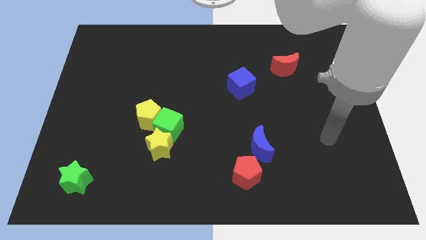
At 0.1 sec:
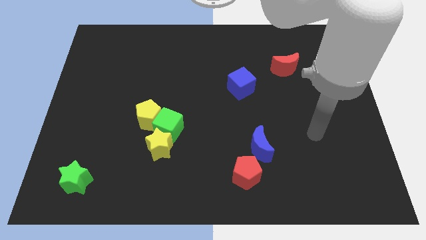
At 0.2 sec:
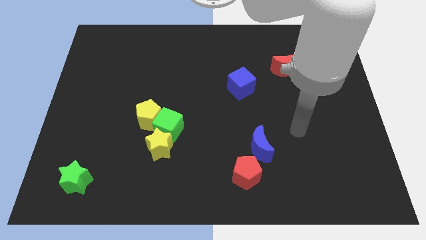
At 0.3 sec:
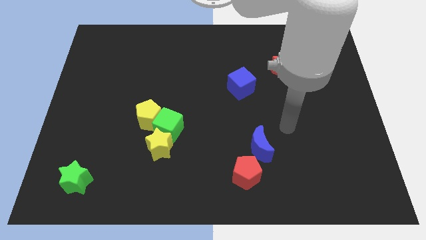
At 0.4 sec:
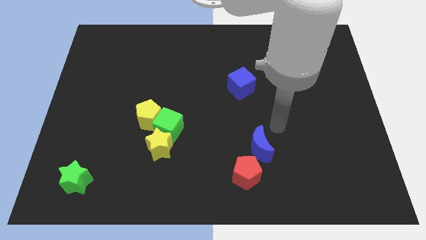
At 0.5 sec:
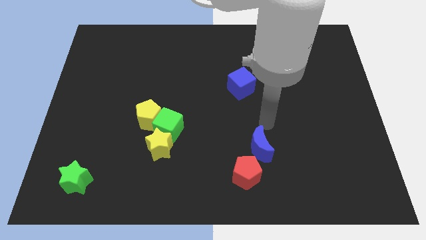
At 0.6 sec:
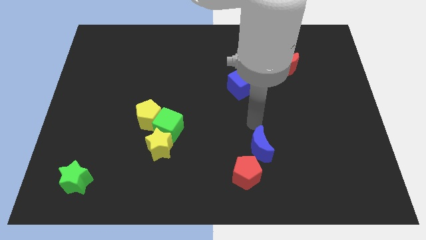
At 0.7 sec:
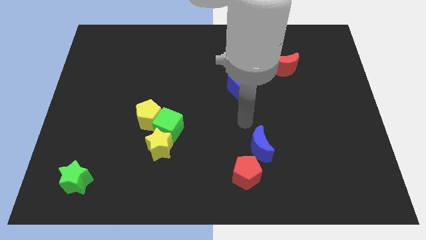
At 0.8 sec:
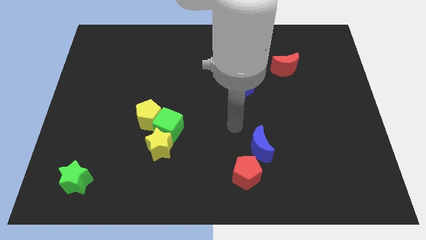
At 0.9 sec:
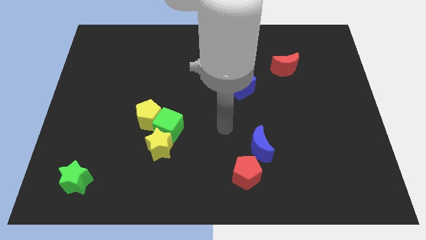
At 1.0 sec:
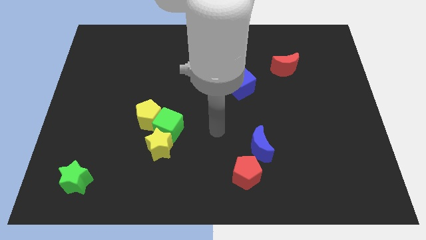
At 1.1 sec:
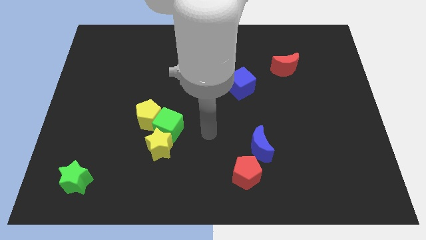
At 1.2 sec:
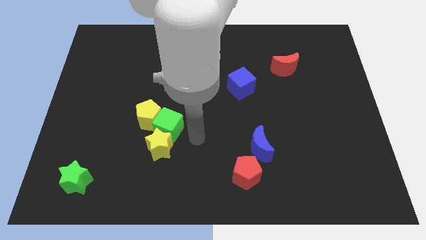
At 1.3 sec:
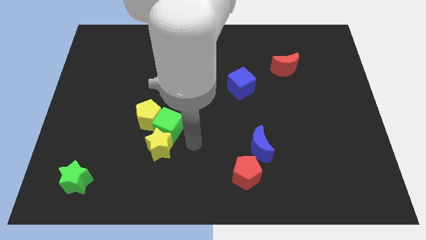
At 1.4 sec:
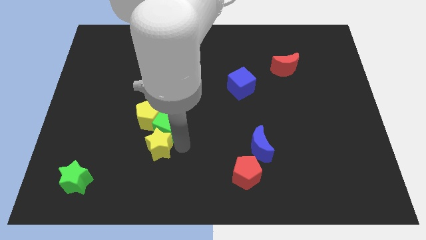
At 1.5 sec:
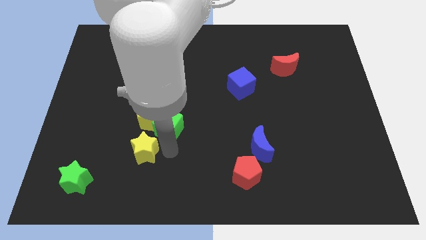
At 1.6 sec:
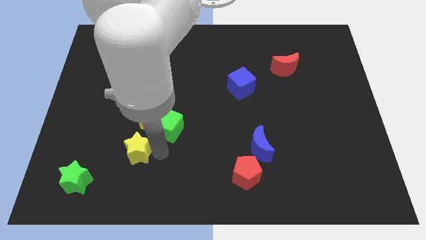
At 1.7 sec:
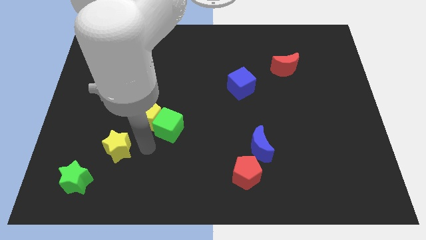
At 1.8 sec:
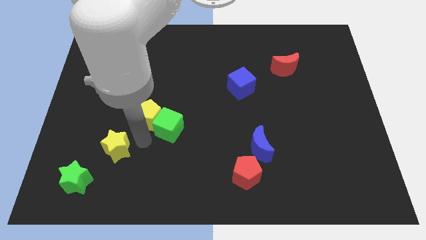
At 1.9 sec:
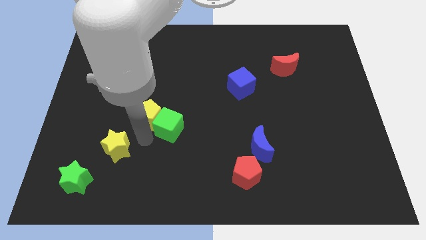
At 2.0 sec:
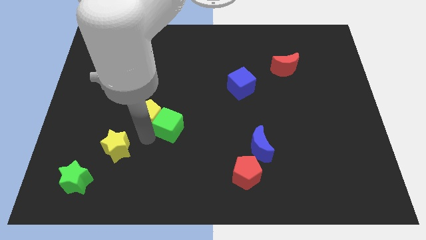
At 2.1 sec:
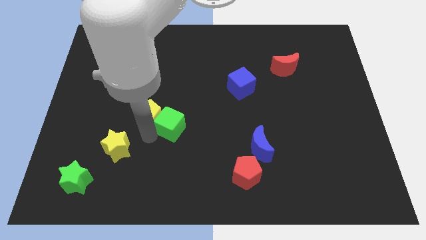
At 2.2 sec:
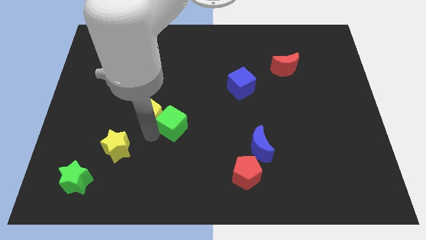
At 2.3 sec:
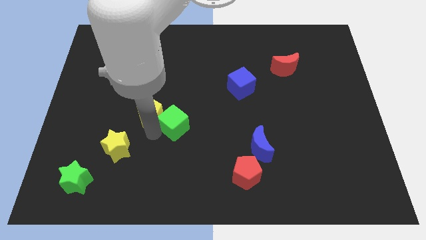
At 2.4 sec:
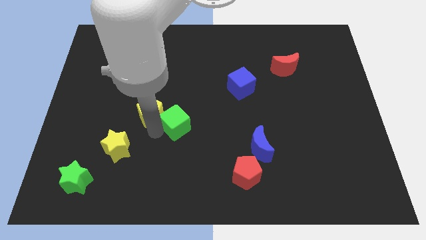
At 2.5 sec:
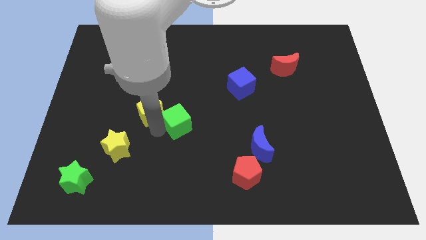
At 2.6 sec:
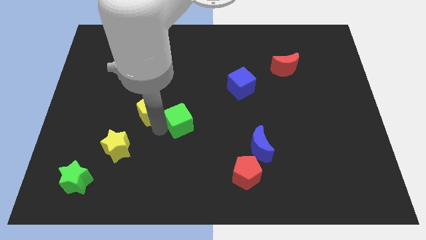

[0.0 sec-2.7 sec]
move the green cube away from the yellow pentagon and yellow star

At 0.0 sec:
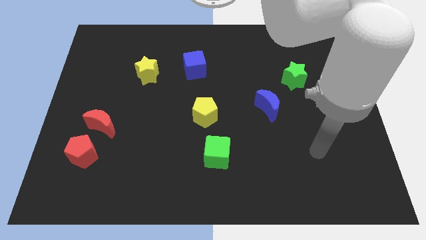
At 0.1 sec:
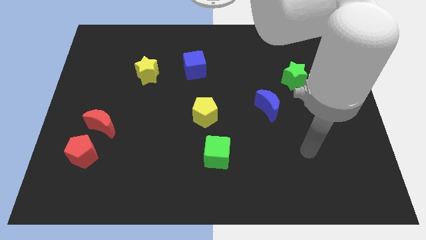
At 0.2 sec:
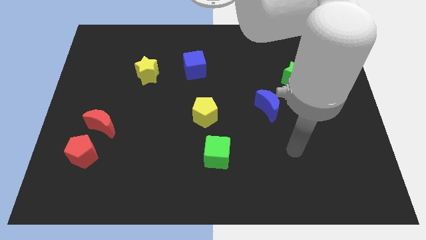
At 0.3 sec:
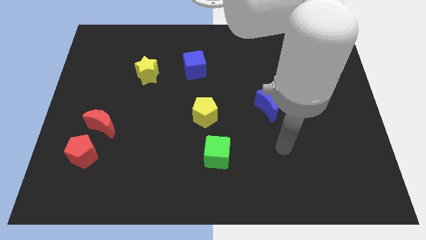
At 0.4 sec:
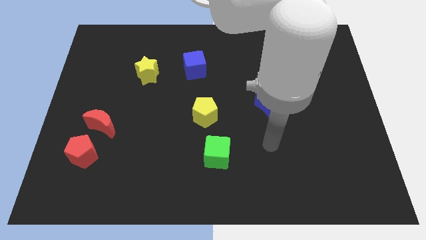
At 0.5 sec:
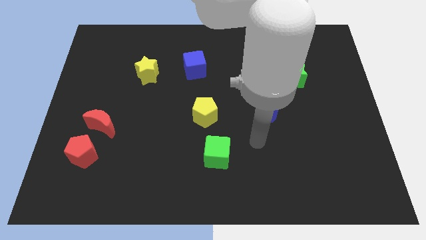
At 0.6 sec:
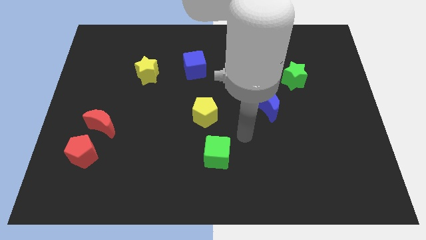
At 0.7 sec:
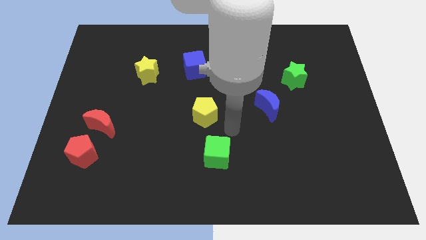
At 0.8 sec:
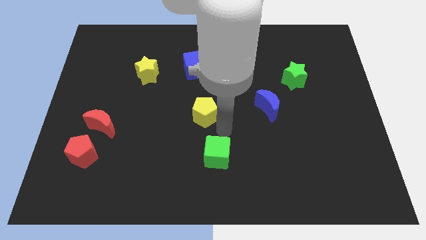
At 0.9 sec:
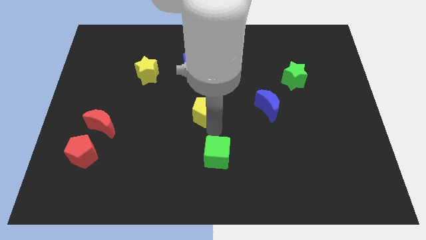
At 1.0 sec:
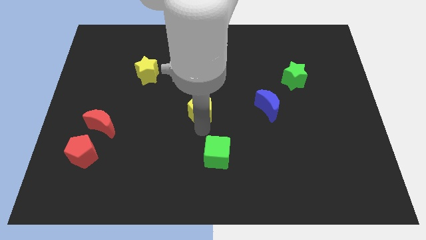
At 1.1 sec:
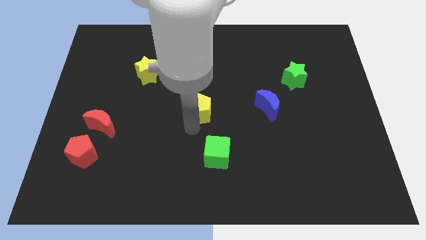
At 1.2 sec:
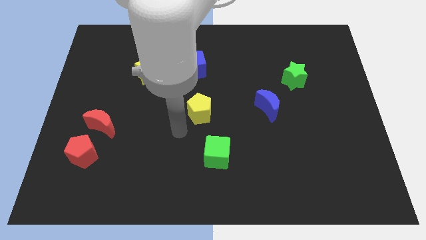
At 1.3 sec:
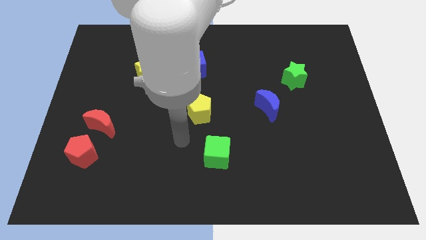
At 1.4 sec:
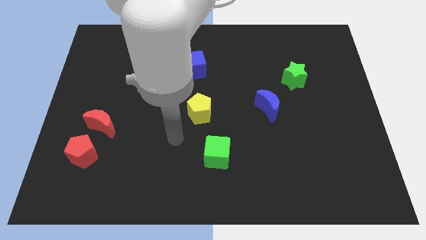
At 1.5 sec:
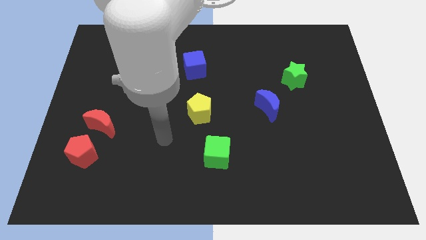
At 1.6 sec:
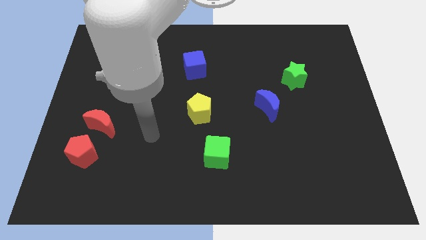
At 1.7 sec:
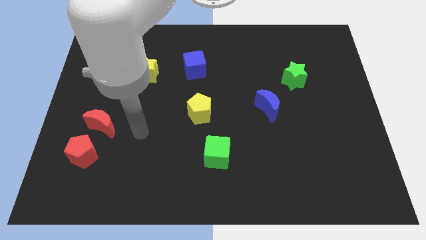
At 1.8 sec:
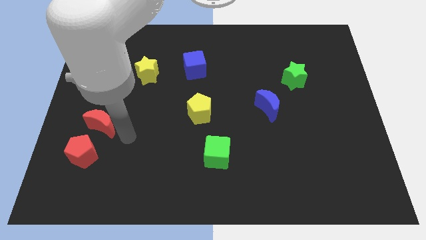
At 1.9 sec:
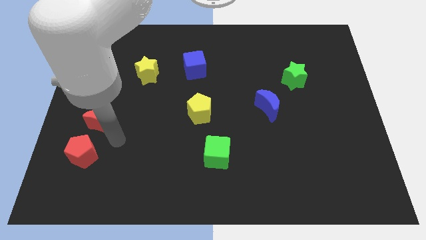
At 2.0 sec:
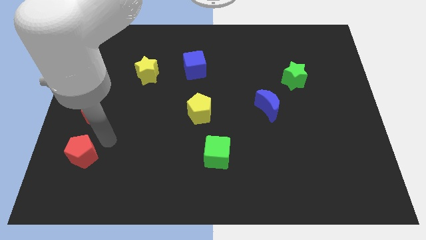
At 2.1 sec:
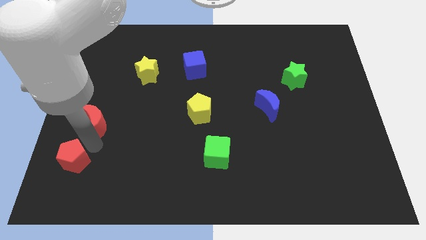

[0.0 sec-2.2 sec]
pull the red moon apart from the red pentagon

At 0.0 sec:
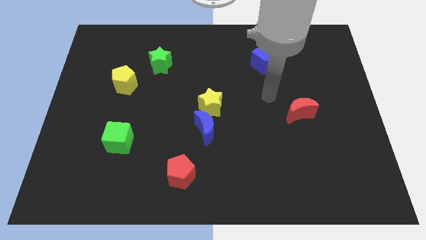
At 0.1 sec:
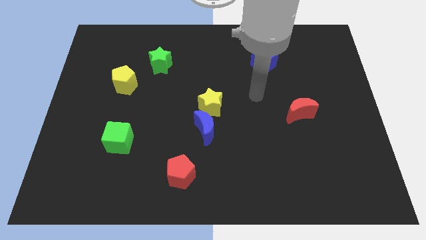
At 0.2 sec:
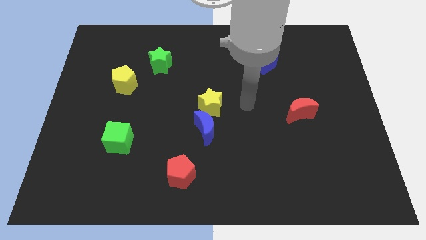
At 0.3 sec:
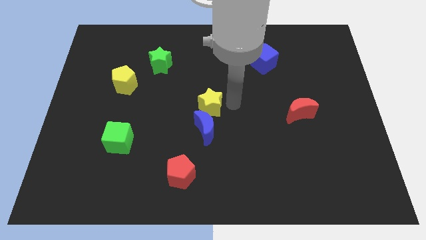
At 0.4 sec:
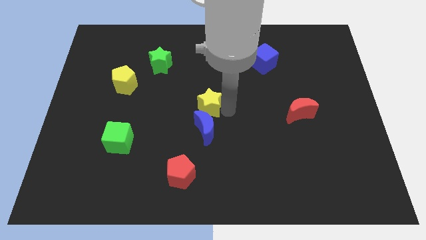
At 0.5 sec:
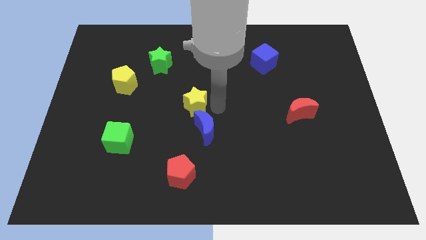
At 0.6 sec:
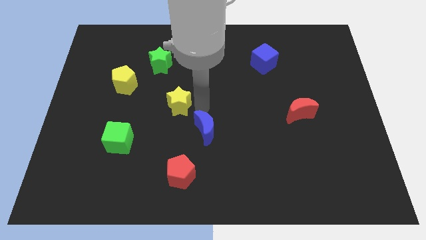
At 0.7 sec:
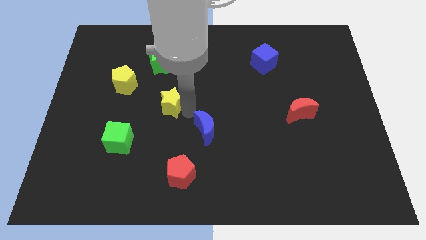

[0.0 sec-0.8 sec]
move the blue moon away from the yellow star

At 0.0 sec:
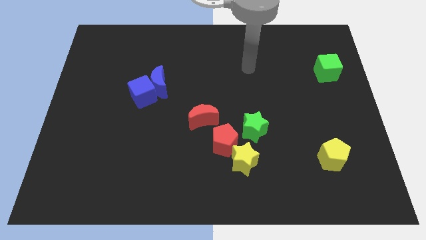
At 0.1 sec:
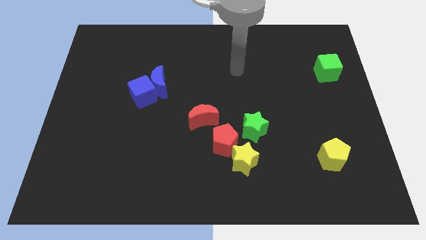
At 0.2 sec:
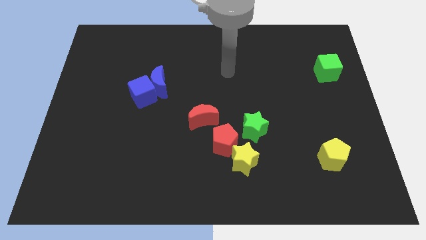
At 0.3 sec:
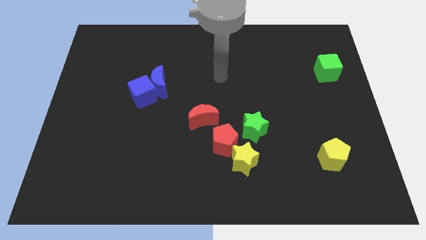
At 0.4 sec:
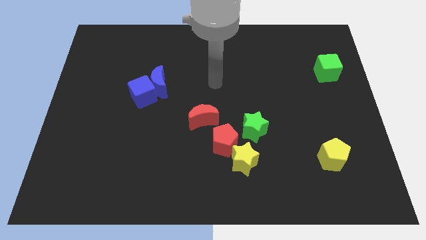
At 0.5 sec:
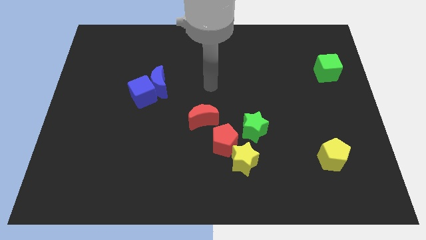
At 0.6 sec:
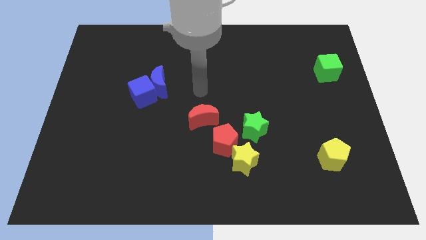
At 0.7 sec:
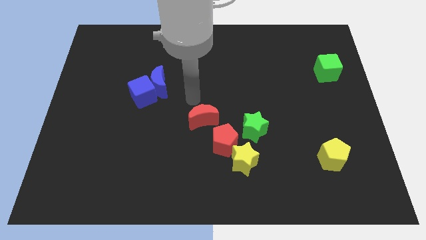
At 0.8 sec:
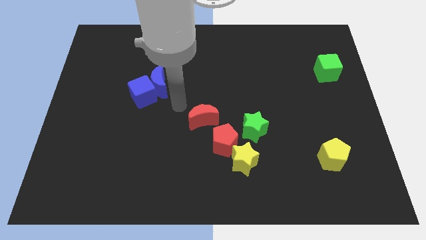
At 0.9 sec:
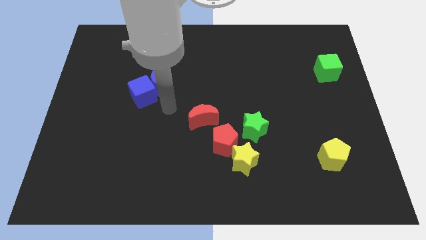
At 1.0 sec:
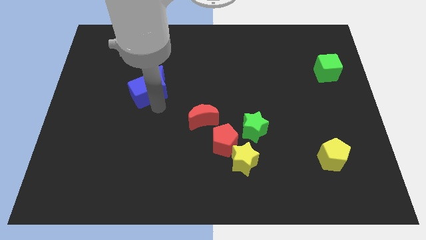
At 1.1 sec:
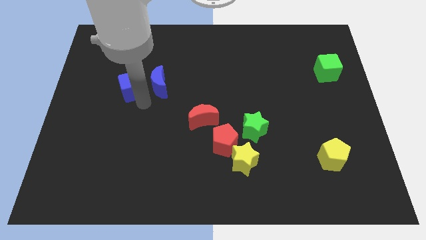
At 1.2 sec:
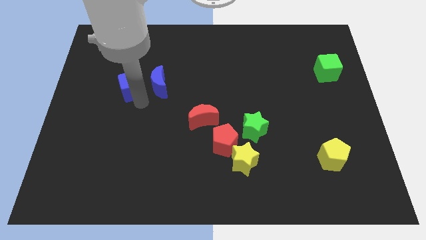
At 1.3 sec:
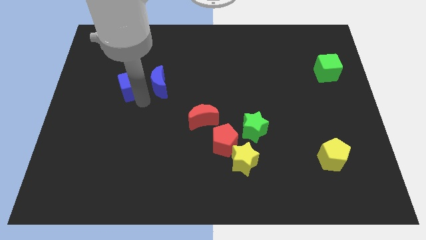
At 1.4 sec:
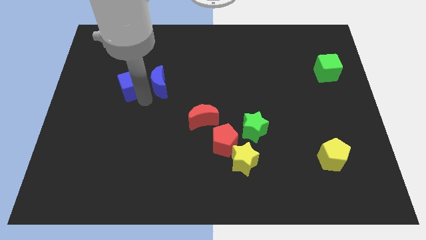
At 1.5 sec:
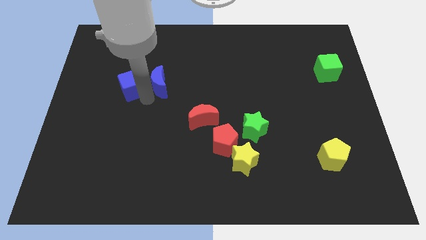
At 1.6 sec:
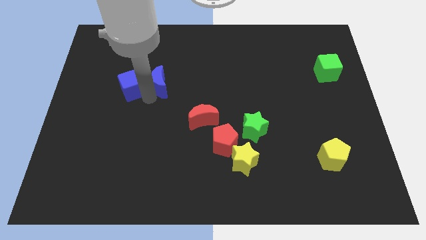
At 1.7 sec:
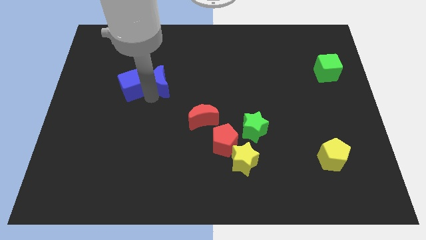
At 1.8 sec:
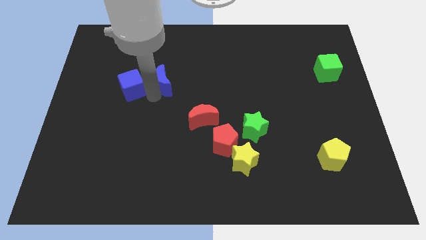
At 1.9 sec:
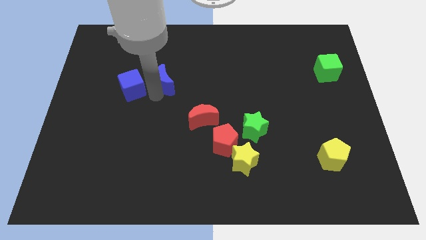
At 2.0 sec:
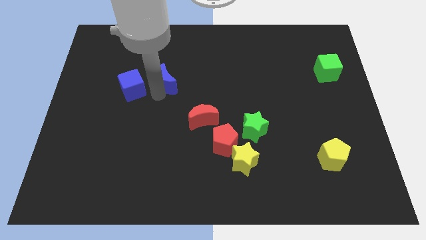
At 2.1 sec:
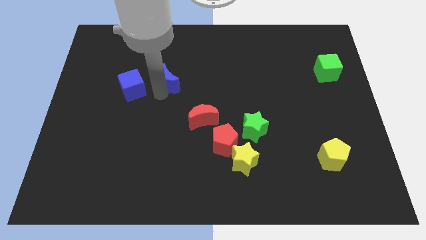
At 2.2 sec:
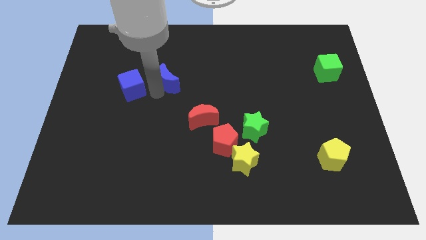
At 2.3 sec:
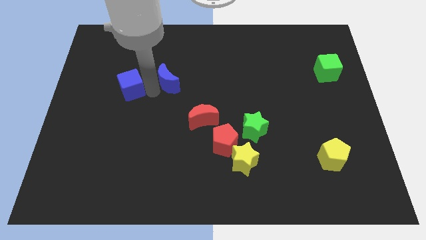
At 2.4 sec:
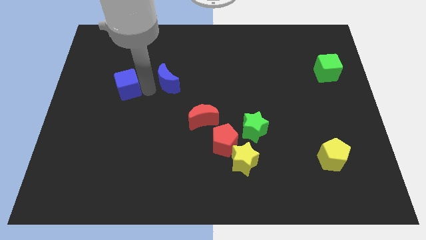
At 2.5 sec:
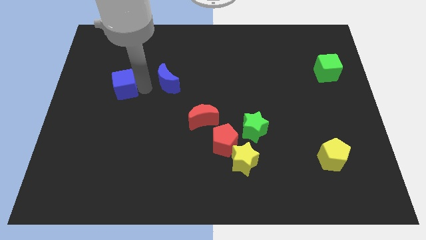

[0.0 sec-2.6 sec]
separate the blue moon from the blue cube

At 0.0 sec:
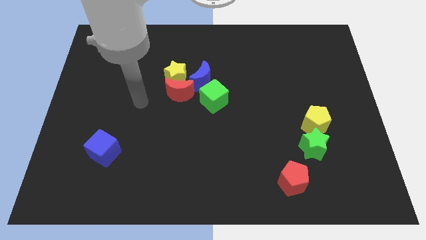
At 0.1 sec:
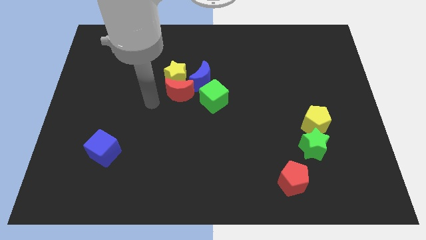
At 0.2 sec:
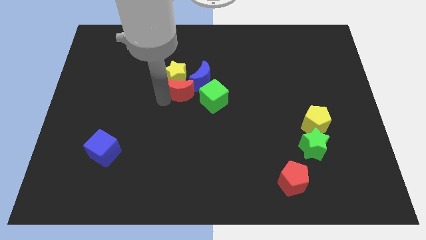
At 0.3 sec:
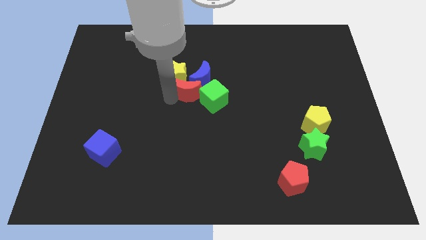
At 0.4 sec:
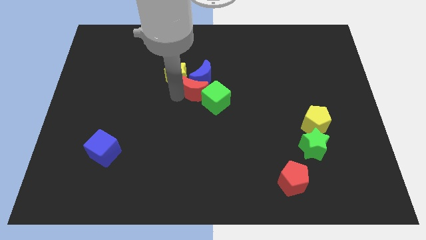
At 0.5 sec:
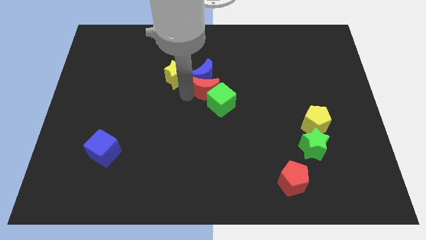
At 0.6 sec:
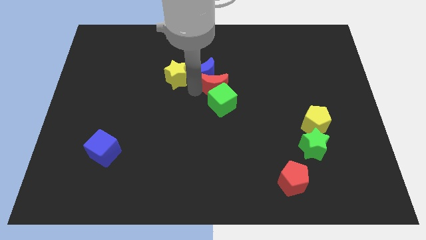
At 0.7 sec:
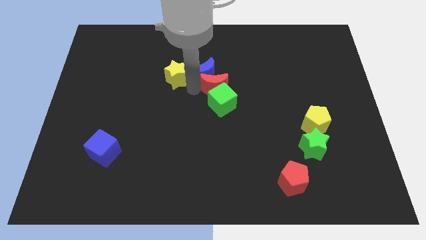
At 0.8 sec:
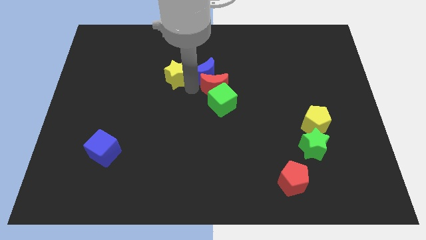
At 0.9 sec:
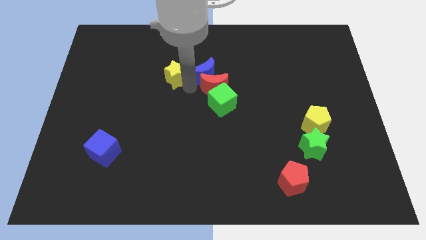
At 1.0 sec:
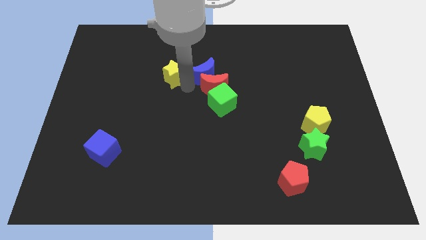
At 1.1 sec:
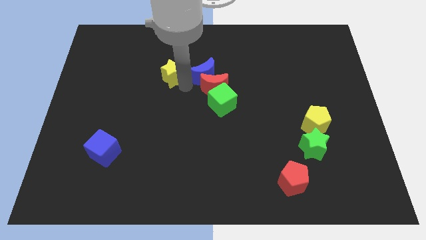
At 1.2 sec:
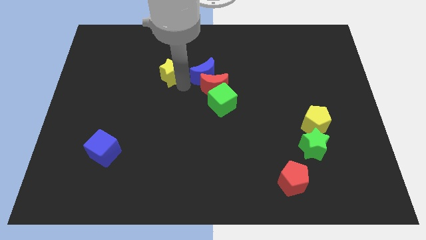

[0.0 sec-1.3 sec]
move the yellow star away from the red moon and blue moon
